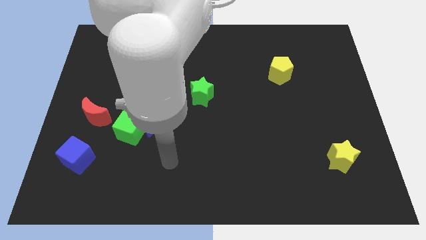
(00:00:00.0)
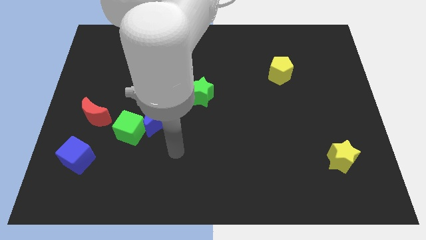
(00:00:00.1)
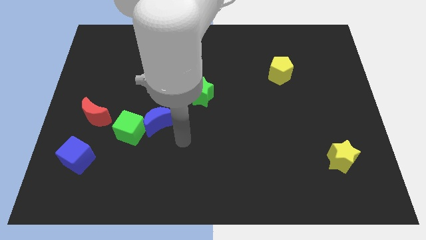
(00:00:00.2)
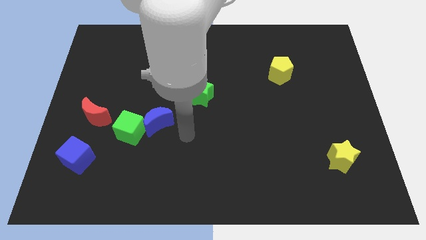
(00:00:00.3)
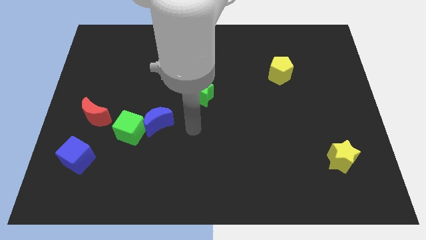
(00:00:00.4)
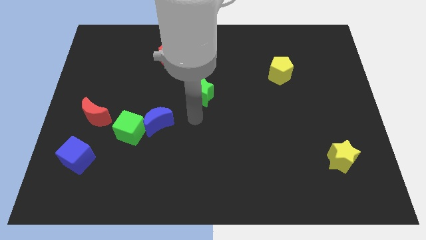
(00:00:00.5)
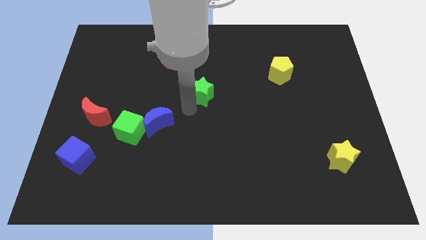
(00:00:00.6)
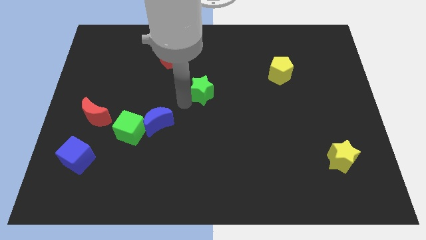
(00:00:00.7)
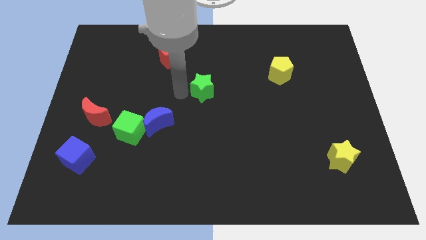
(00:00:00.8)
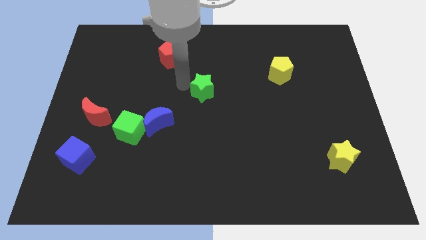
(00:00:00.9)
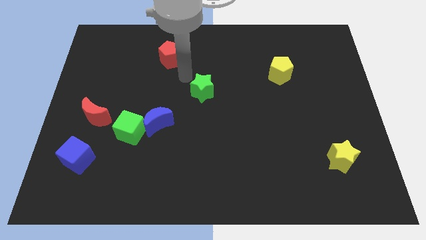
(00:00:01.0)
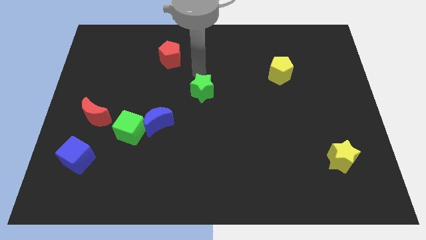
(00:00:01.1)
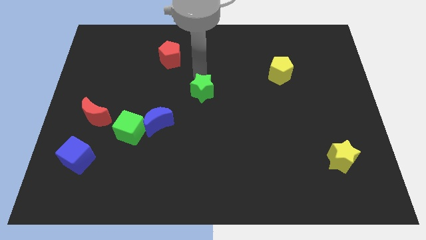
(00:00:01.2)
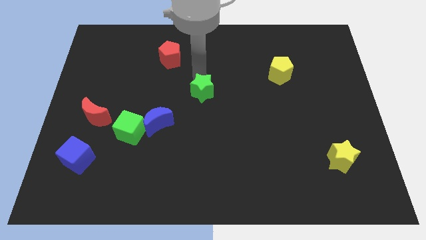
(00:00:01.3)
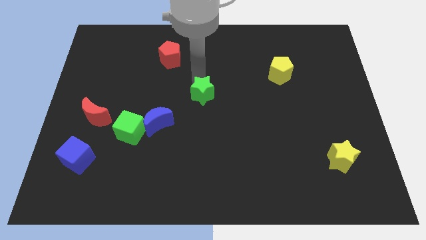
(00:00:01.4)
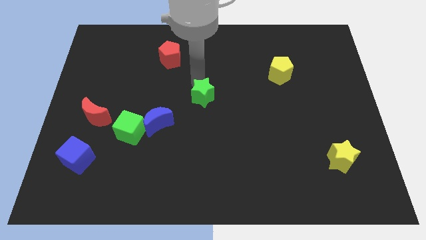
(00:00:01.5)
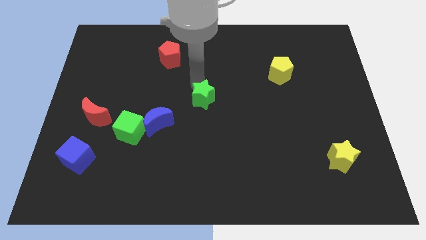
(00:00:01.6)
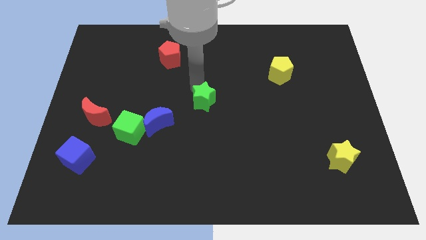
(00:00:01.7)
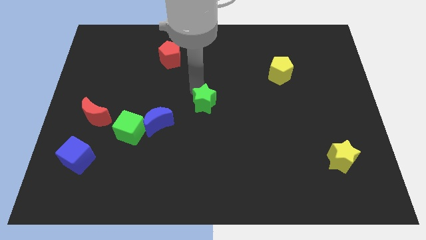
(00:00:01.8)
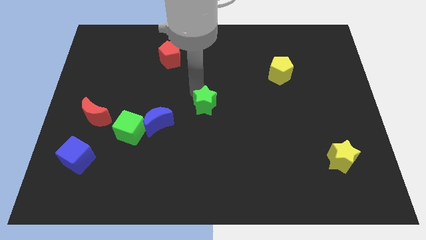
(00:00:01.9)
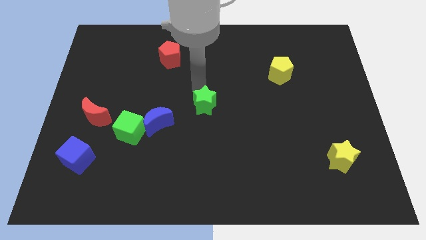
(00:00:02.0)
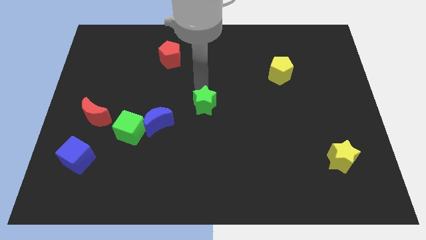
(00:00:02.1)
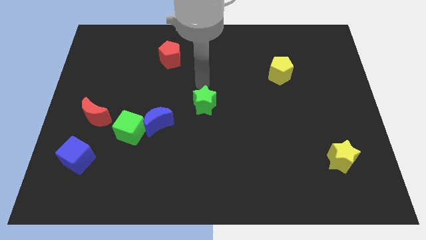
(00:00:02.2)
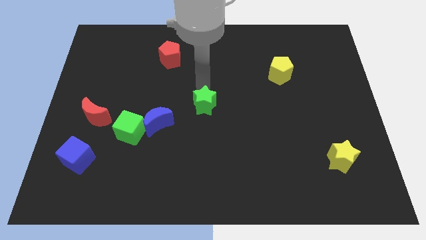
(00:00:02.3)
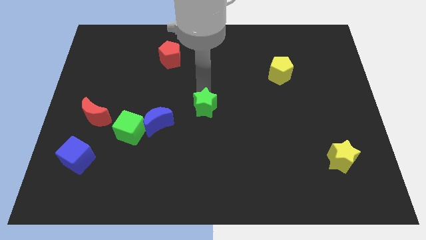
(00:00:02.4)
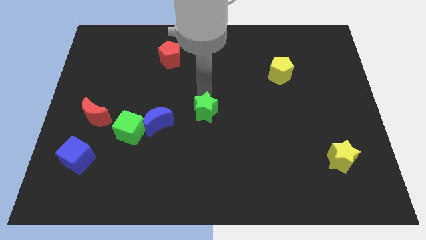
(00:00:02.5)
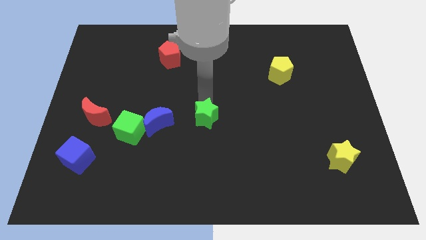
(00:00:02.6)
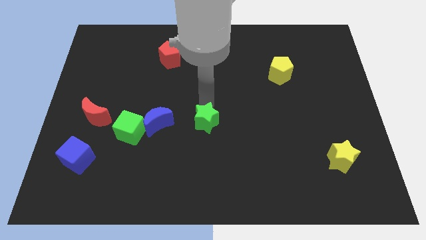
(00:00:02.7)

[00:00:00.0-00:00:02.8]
move the green star downwards a bit

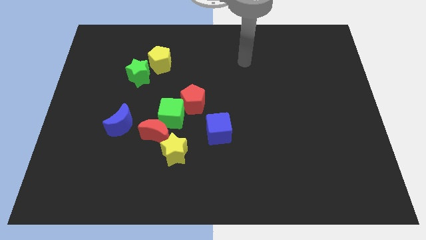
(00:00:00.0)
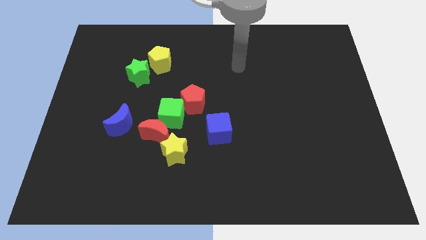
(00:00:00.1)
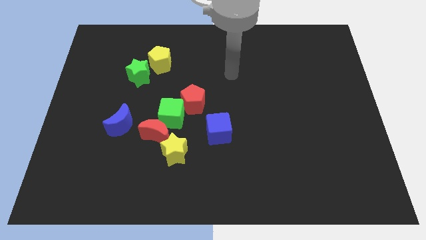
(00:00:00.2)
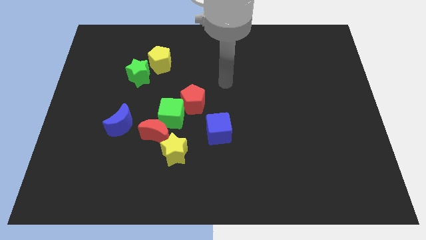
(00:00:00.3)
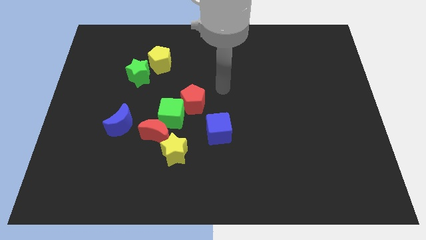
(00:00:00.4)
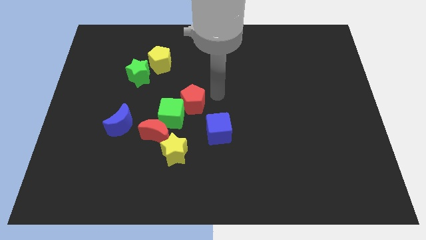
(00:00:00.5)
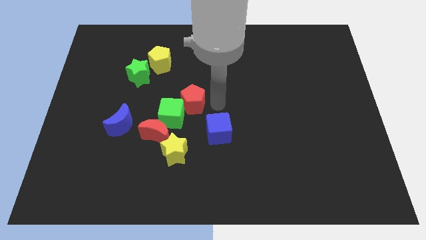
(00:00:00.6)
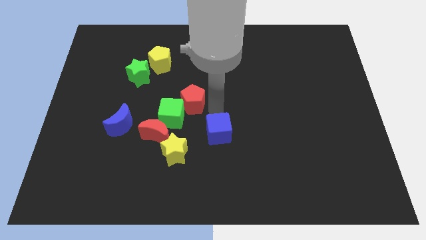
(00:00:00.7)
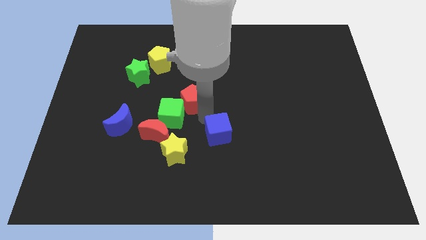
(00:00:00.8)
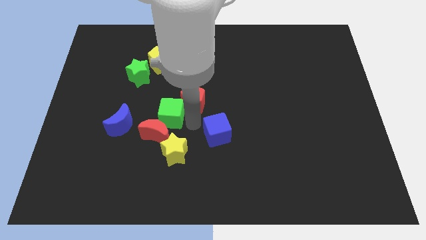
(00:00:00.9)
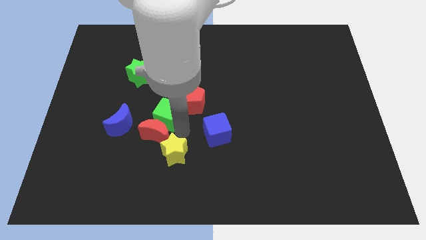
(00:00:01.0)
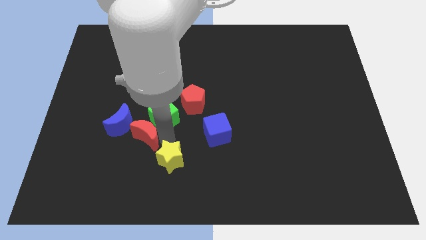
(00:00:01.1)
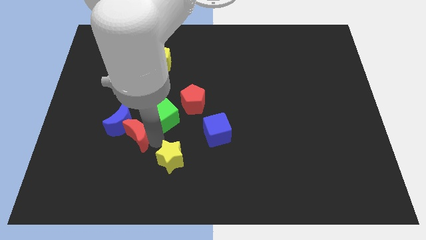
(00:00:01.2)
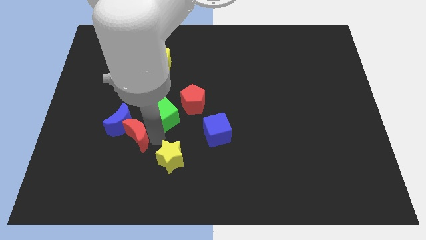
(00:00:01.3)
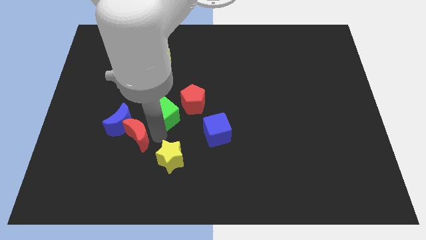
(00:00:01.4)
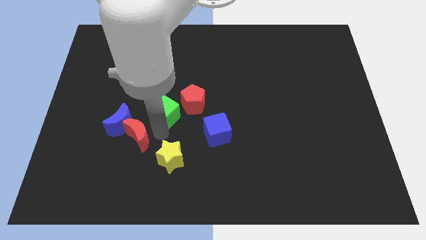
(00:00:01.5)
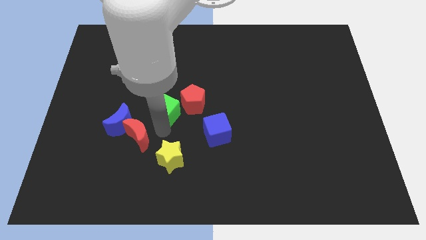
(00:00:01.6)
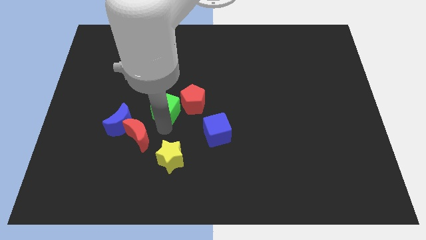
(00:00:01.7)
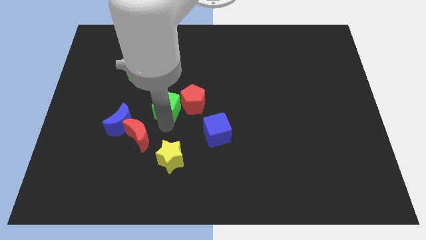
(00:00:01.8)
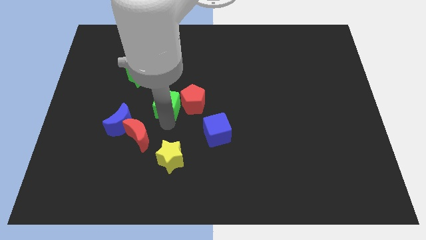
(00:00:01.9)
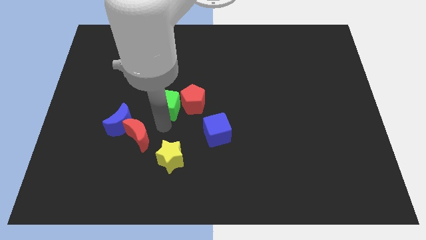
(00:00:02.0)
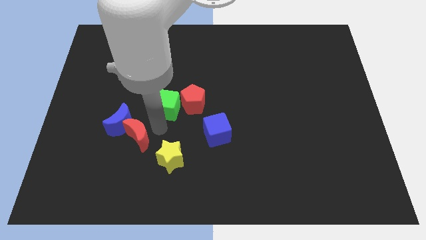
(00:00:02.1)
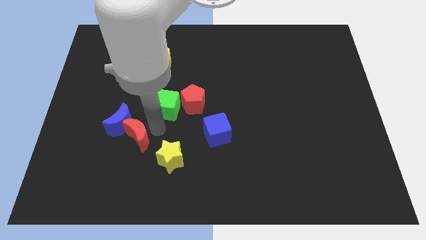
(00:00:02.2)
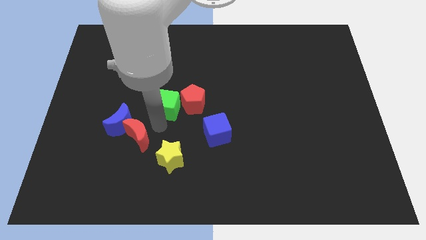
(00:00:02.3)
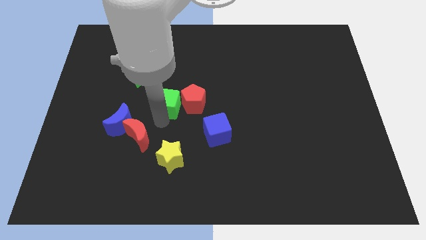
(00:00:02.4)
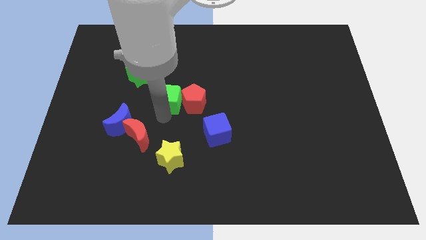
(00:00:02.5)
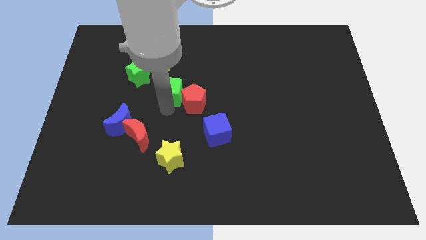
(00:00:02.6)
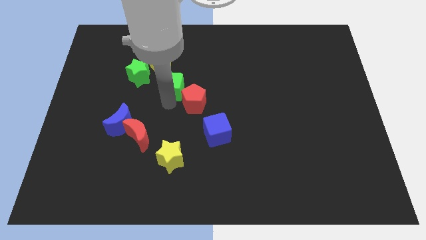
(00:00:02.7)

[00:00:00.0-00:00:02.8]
slightly push the green cube up

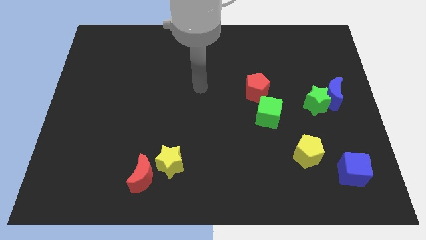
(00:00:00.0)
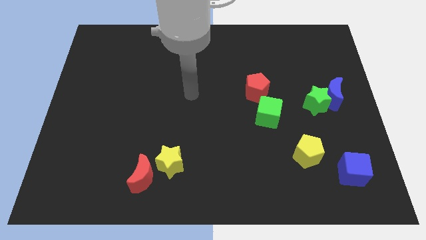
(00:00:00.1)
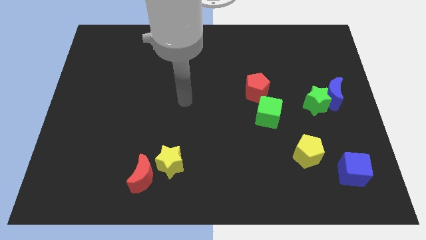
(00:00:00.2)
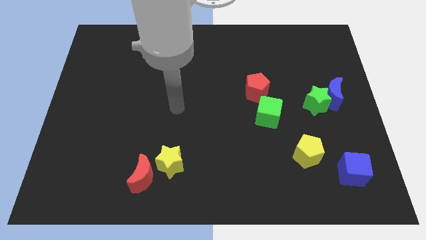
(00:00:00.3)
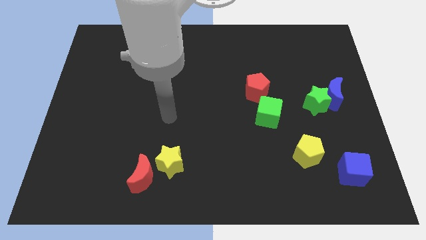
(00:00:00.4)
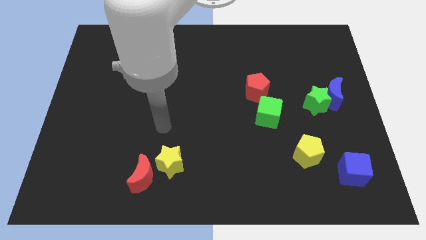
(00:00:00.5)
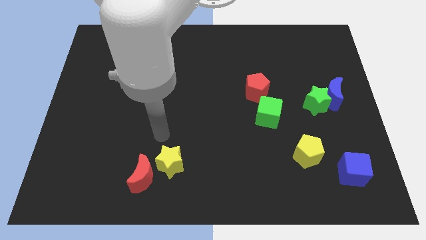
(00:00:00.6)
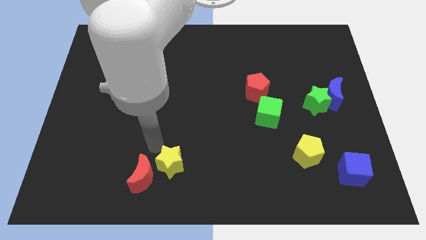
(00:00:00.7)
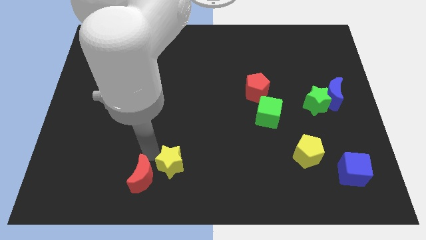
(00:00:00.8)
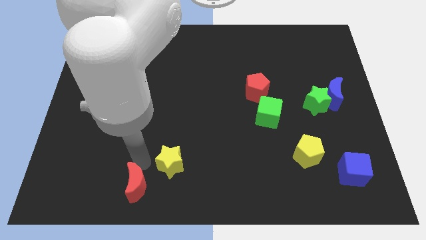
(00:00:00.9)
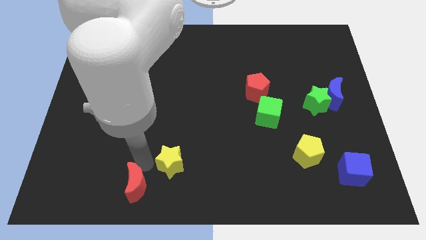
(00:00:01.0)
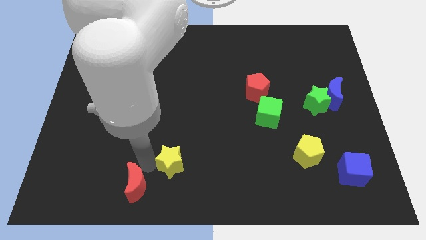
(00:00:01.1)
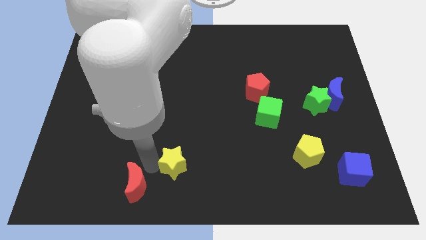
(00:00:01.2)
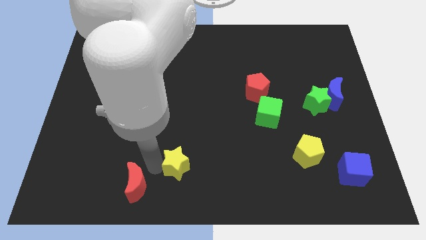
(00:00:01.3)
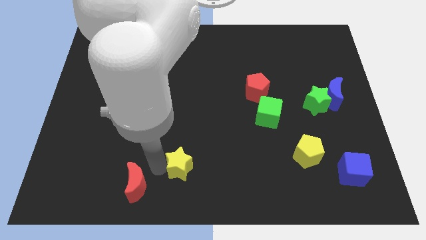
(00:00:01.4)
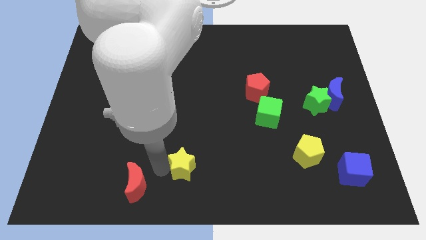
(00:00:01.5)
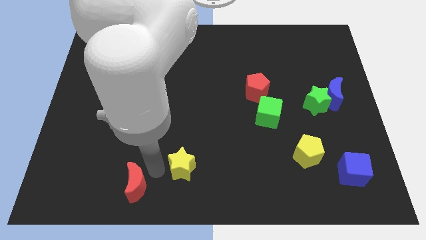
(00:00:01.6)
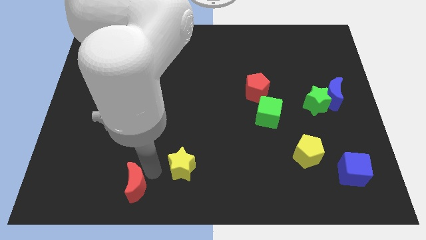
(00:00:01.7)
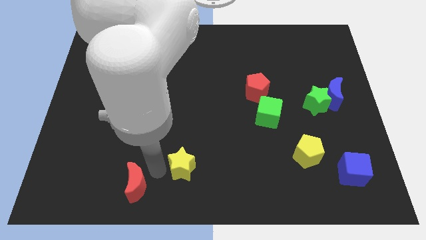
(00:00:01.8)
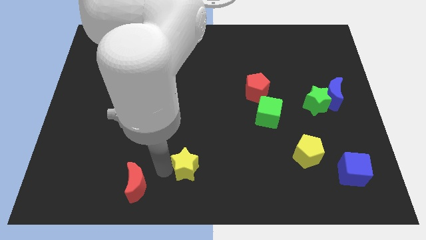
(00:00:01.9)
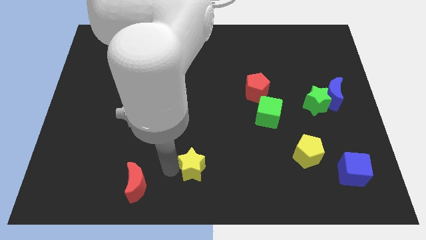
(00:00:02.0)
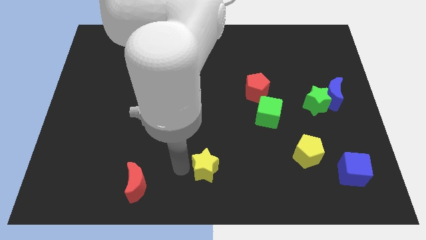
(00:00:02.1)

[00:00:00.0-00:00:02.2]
move the yellow star right a little
